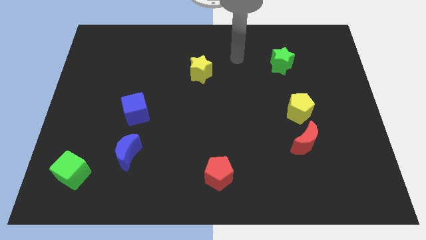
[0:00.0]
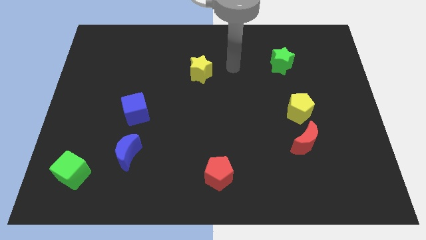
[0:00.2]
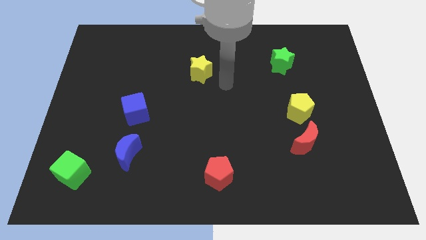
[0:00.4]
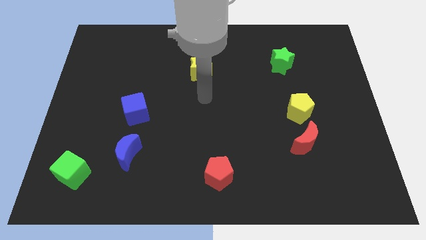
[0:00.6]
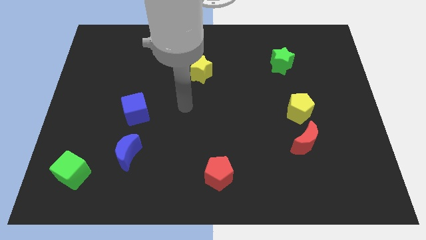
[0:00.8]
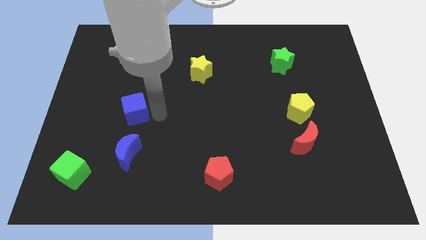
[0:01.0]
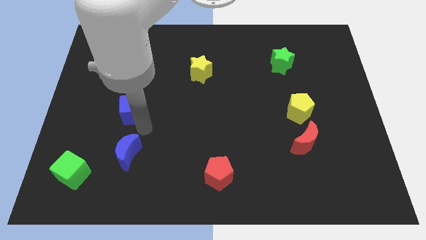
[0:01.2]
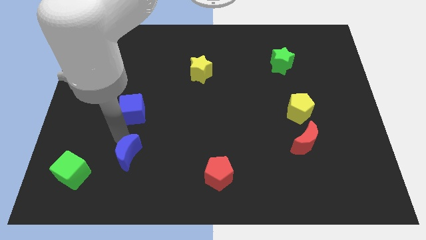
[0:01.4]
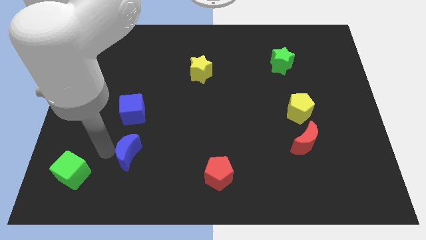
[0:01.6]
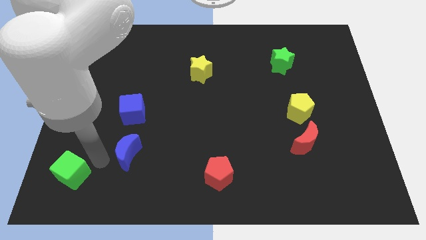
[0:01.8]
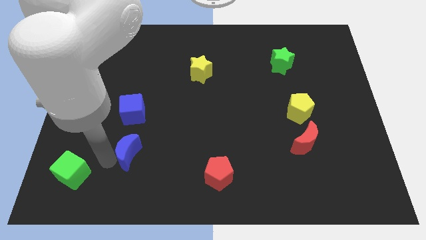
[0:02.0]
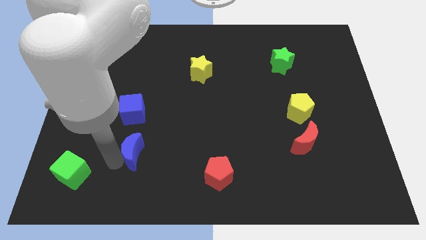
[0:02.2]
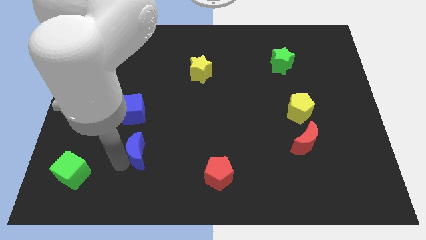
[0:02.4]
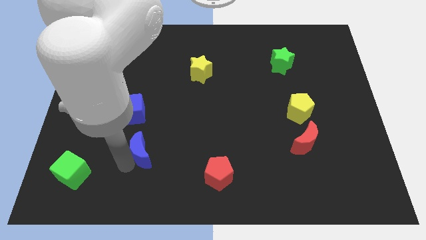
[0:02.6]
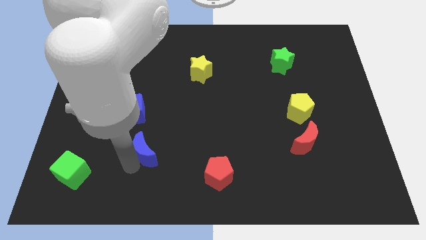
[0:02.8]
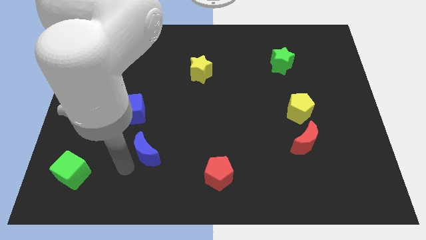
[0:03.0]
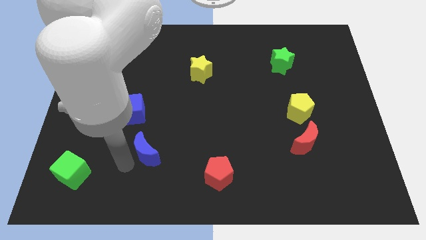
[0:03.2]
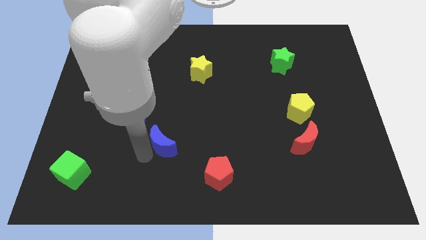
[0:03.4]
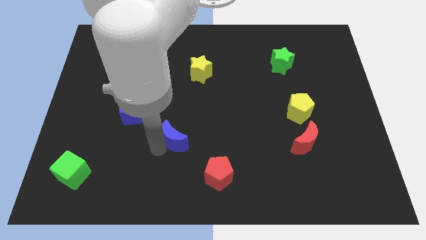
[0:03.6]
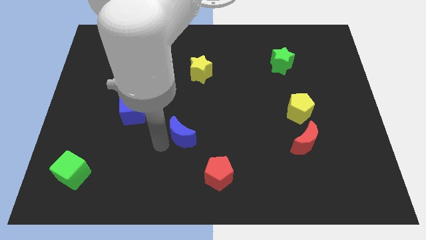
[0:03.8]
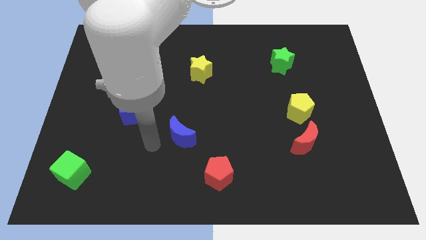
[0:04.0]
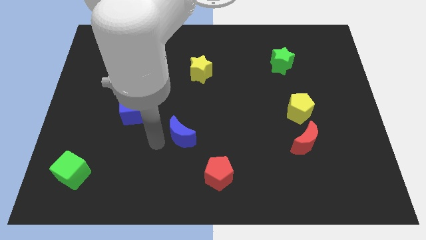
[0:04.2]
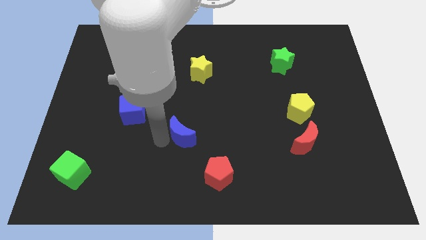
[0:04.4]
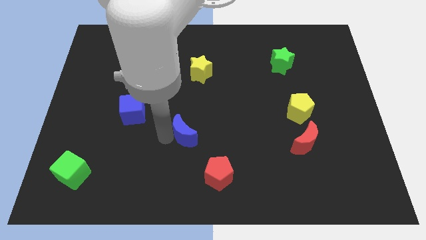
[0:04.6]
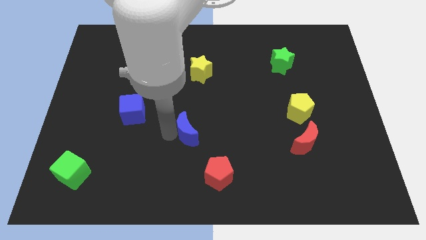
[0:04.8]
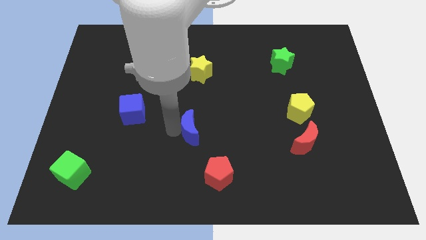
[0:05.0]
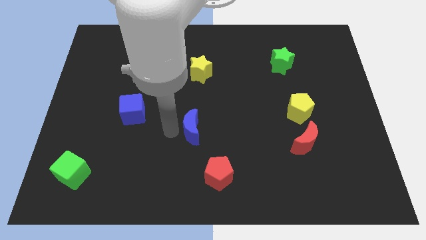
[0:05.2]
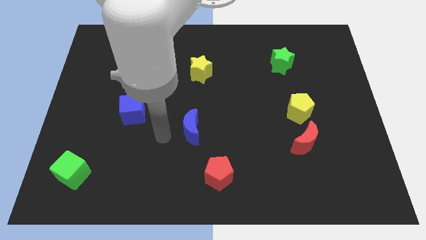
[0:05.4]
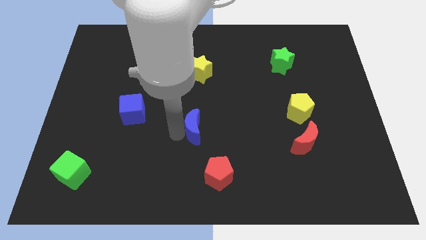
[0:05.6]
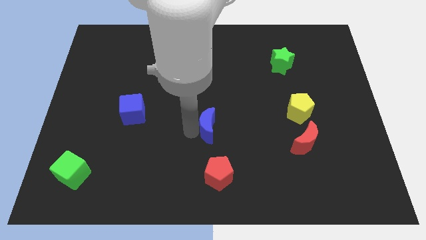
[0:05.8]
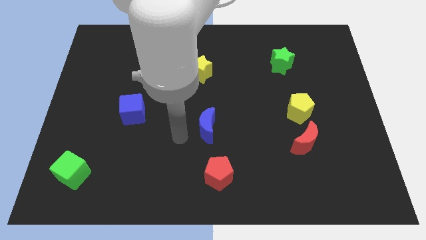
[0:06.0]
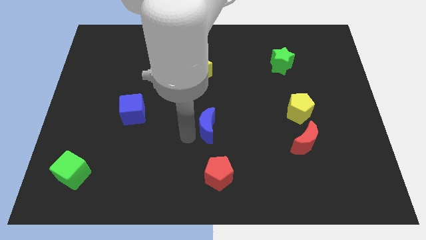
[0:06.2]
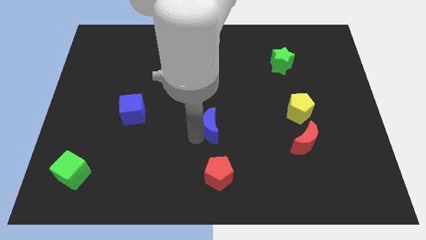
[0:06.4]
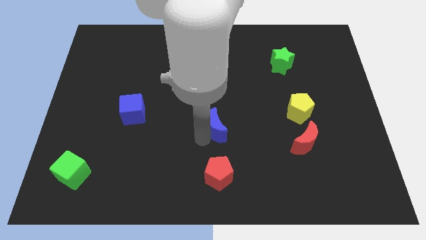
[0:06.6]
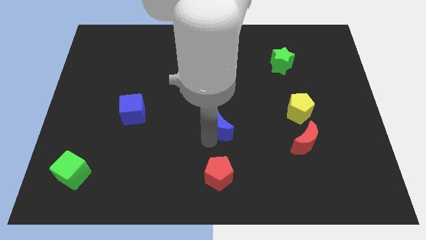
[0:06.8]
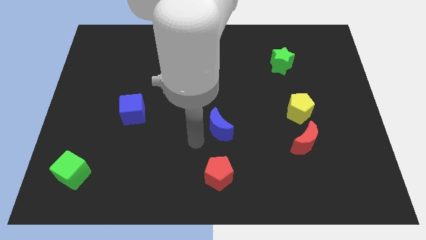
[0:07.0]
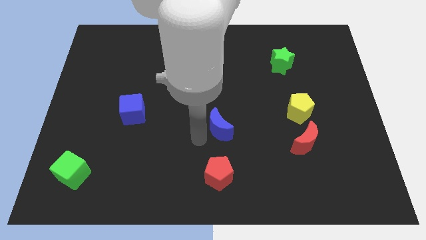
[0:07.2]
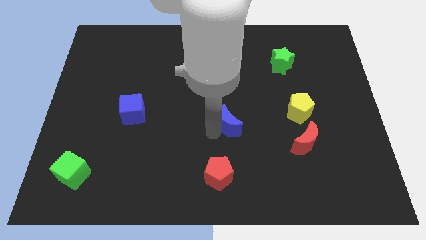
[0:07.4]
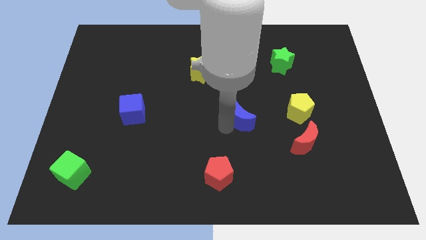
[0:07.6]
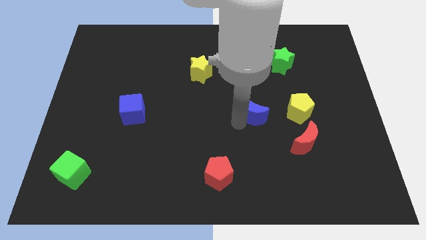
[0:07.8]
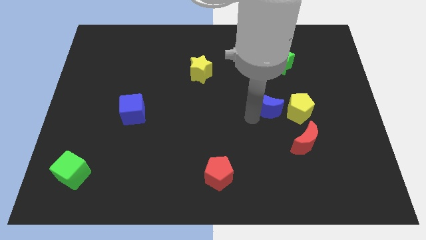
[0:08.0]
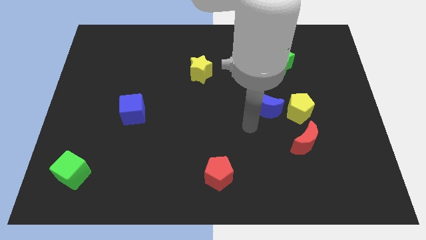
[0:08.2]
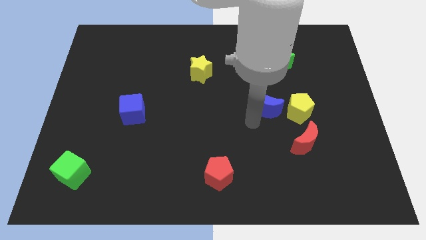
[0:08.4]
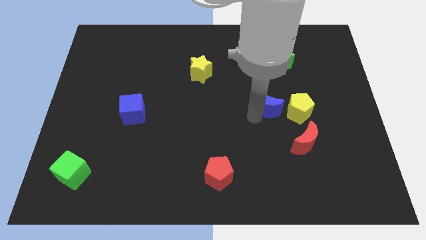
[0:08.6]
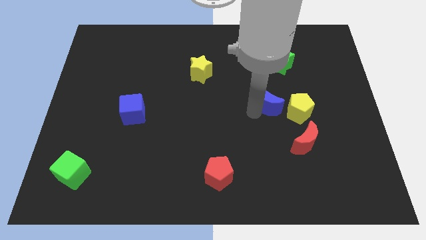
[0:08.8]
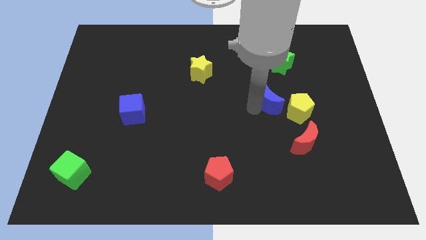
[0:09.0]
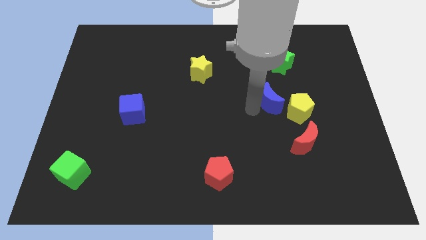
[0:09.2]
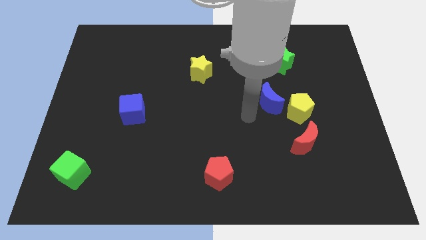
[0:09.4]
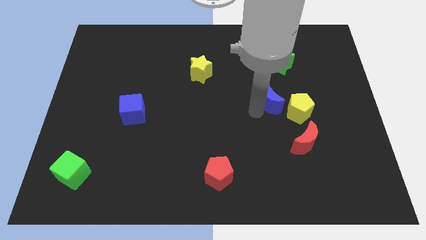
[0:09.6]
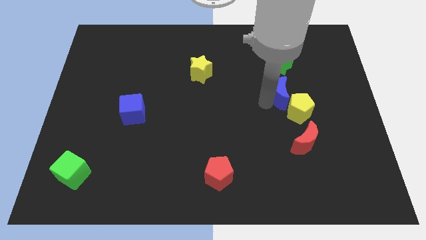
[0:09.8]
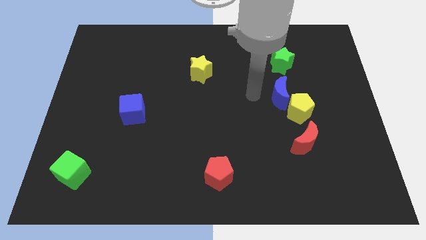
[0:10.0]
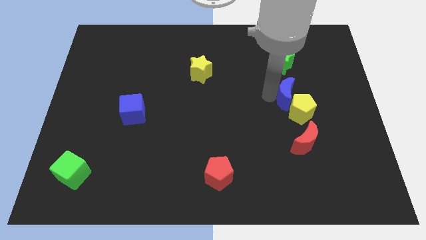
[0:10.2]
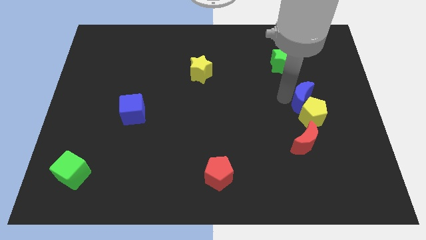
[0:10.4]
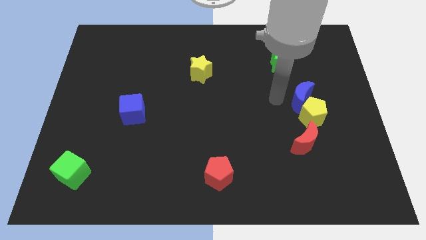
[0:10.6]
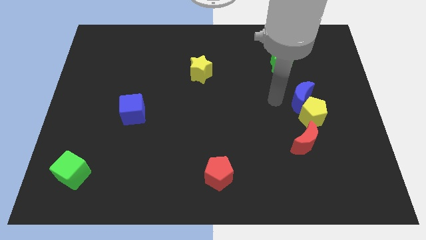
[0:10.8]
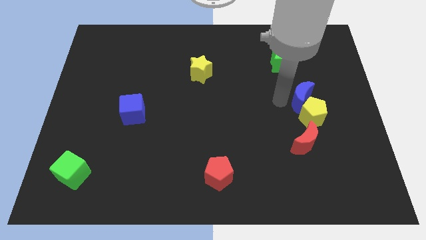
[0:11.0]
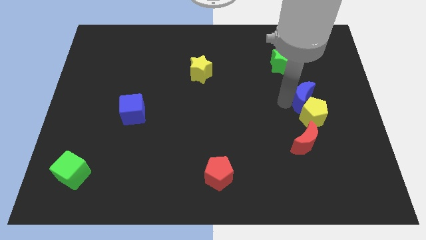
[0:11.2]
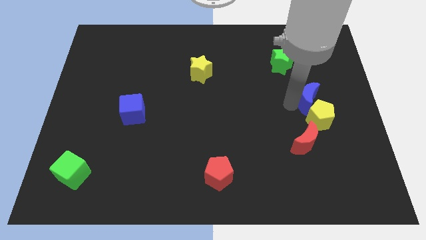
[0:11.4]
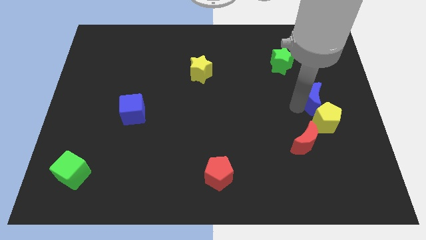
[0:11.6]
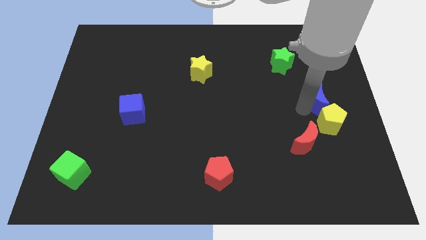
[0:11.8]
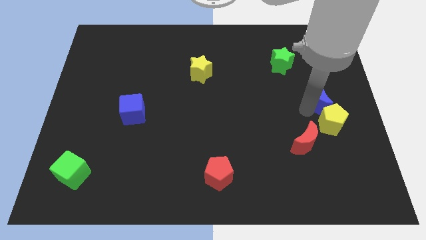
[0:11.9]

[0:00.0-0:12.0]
move the blue moon to the right side

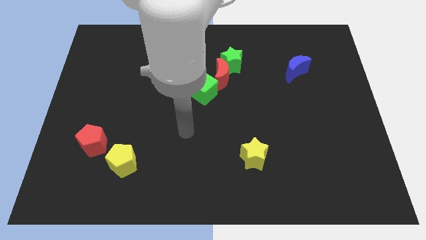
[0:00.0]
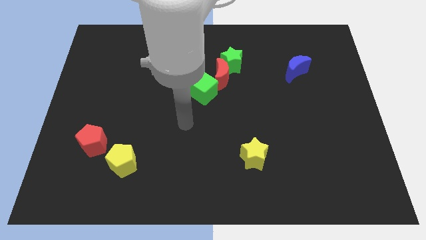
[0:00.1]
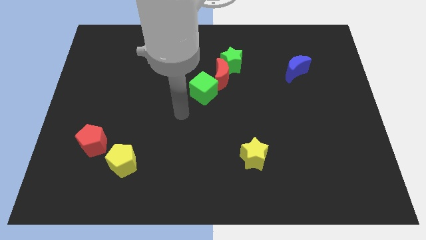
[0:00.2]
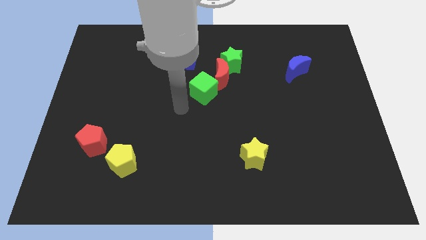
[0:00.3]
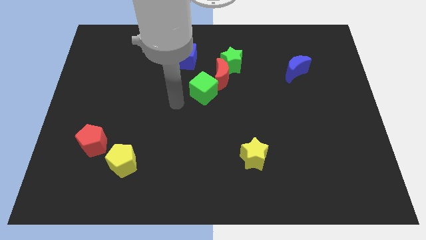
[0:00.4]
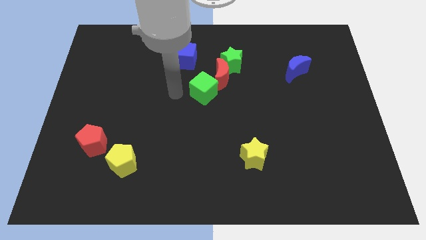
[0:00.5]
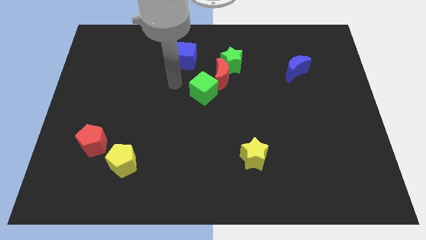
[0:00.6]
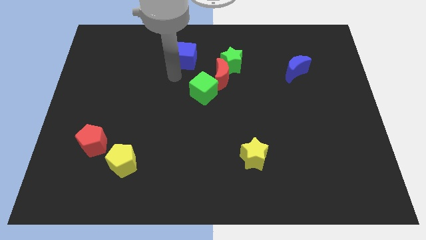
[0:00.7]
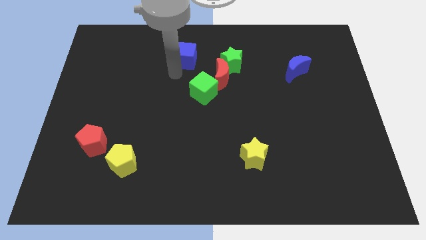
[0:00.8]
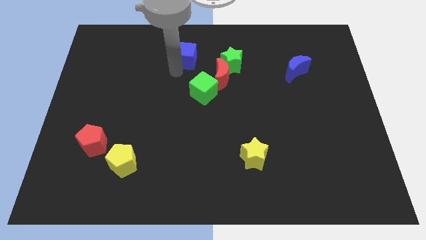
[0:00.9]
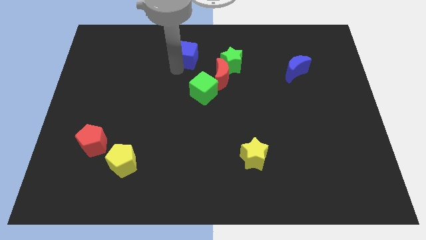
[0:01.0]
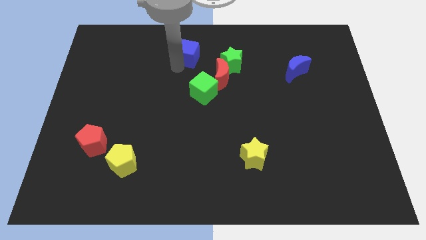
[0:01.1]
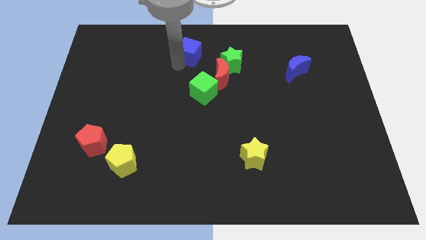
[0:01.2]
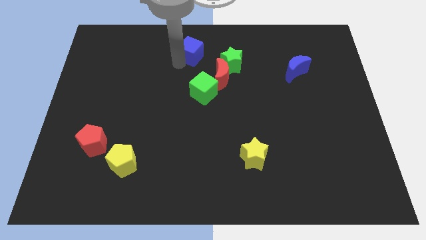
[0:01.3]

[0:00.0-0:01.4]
slide the blue cube to the towards your base
